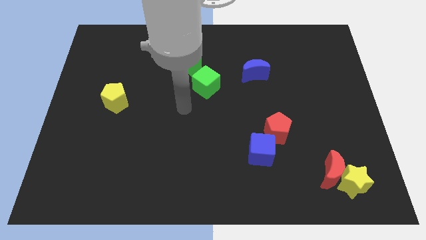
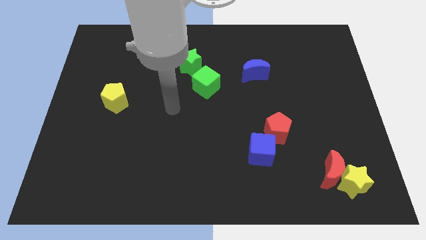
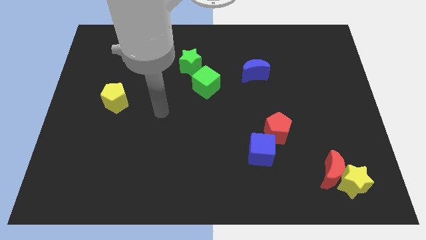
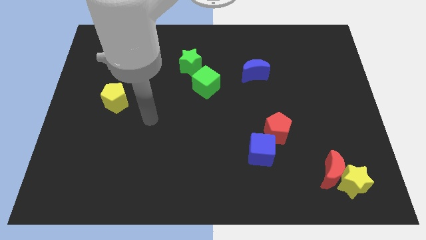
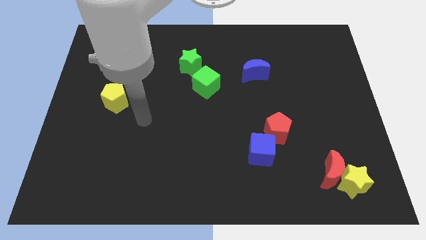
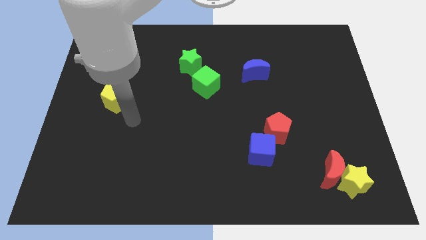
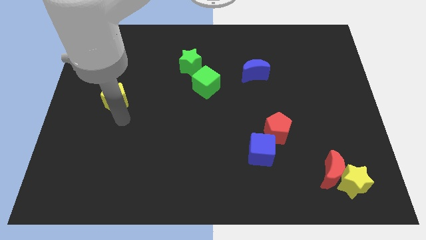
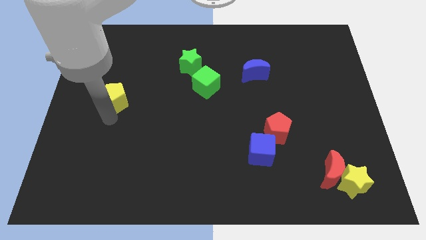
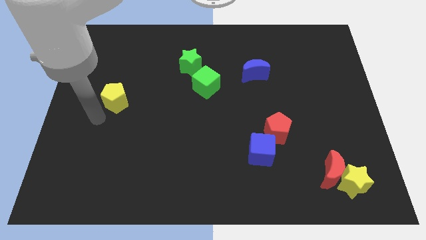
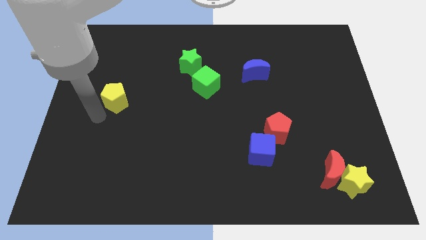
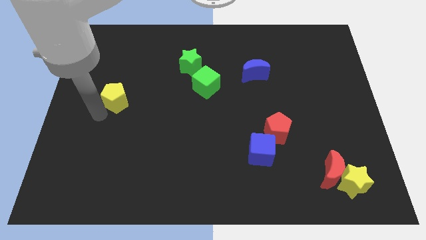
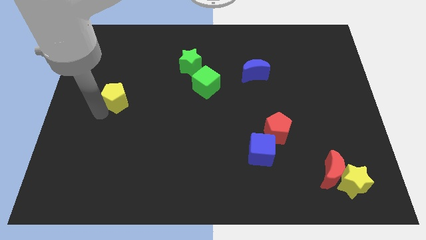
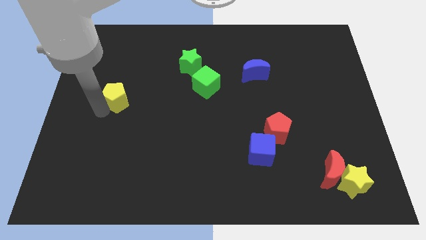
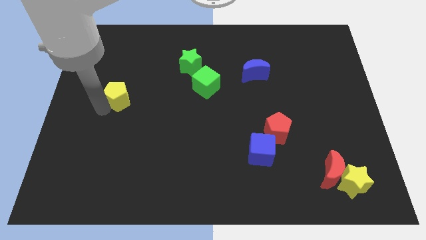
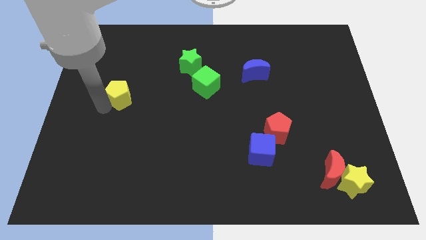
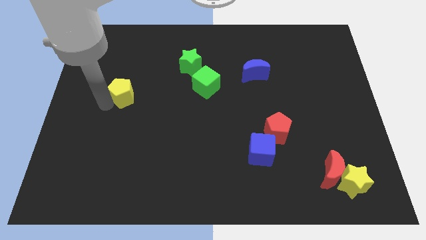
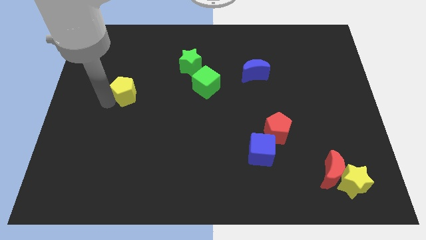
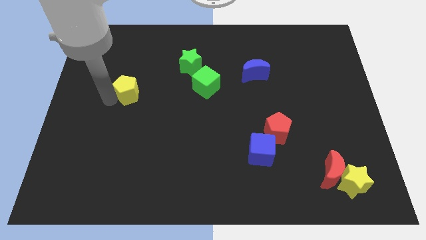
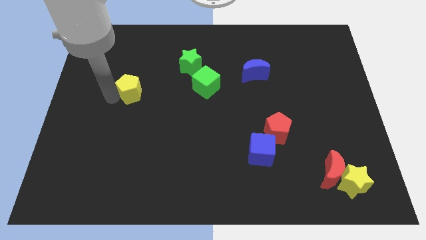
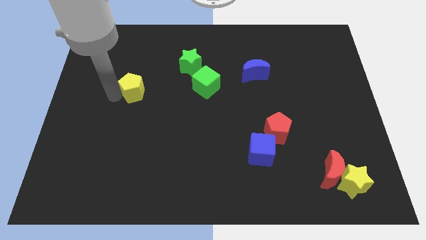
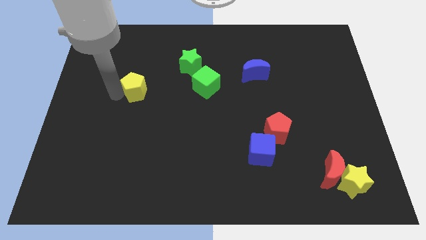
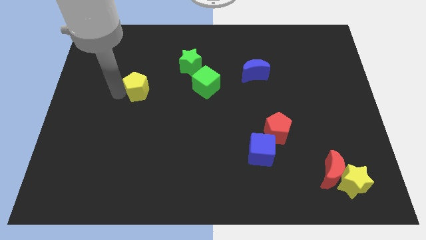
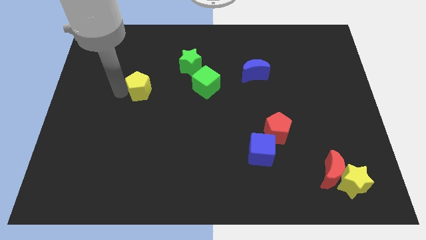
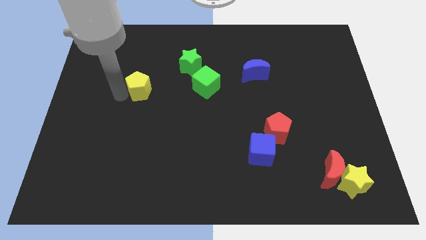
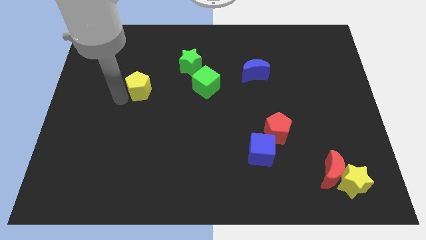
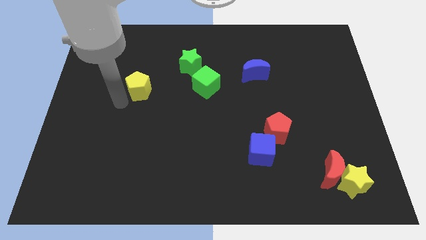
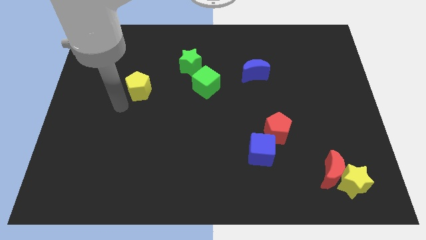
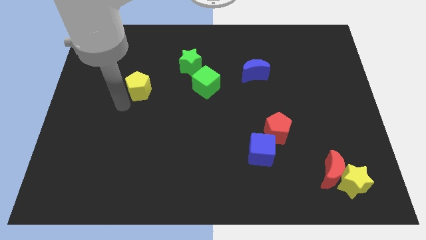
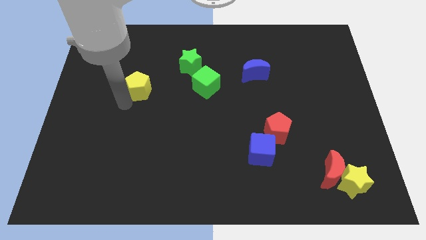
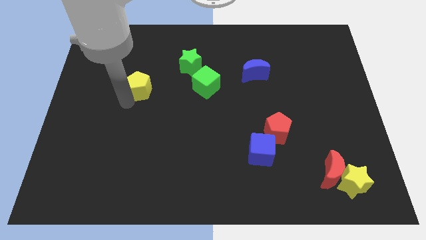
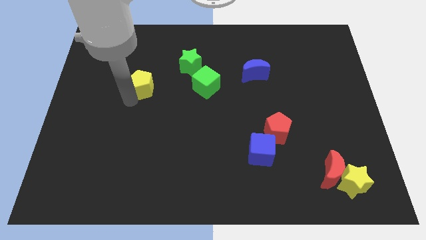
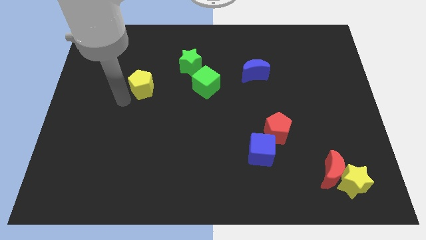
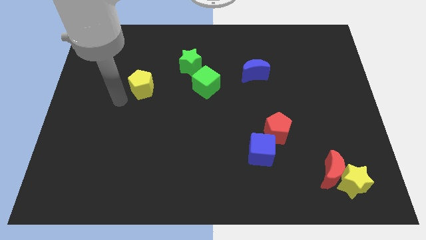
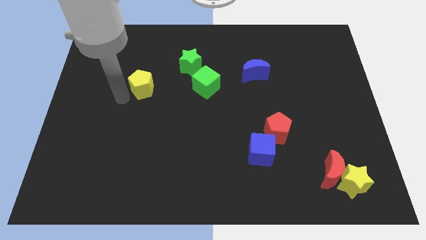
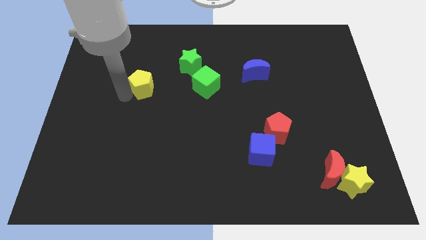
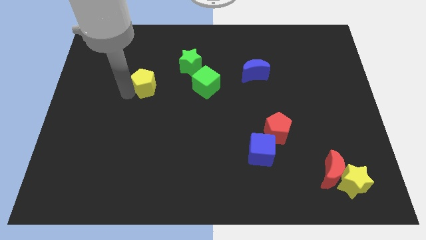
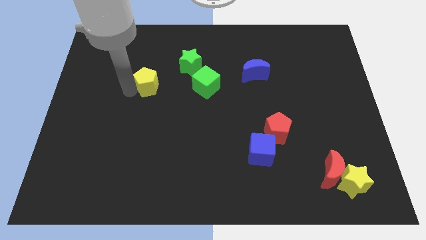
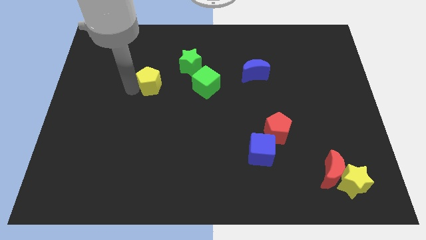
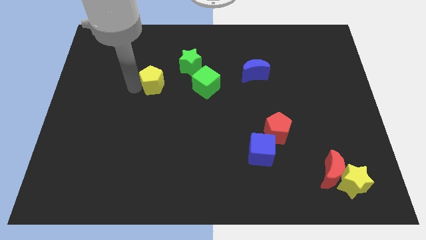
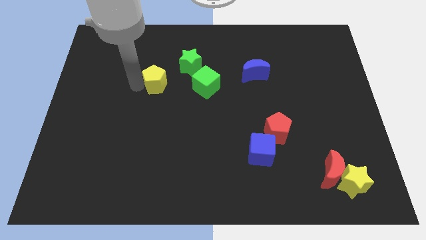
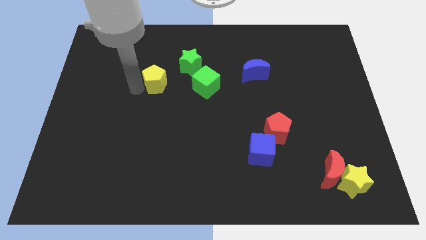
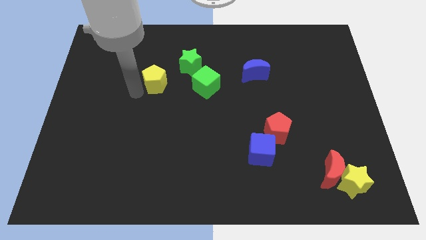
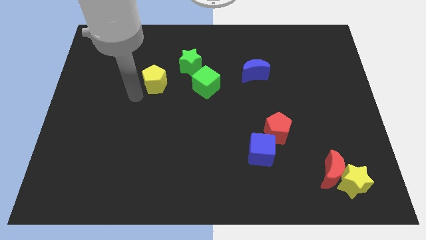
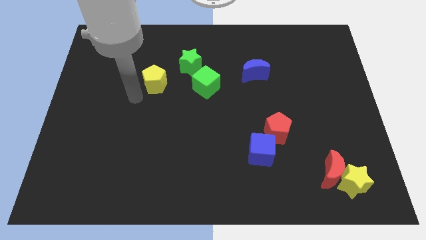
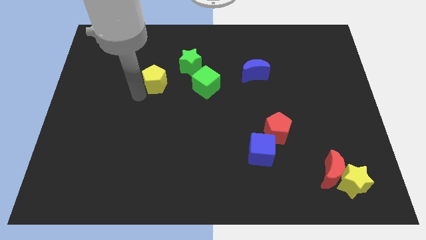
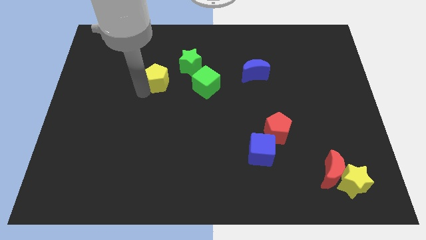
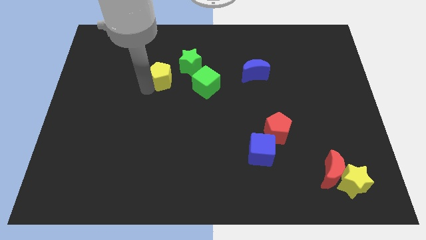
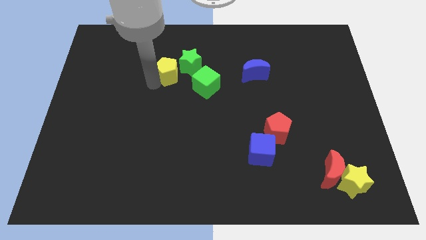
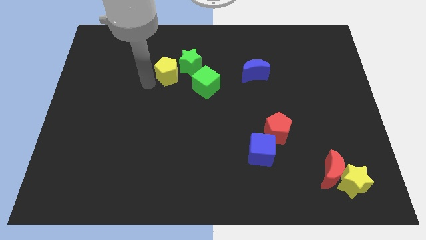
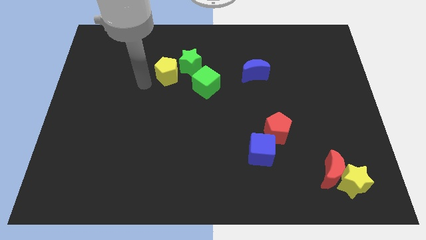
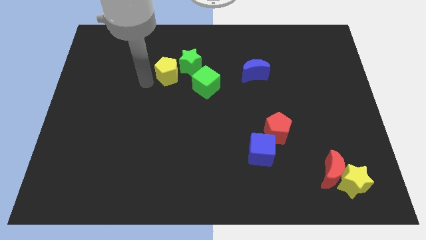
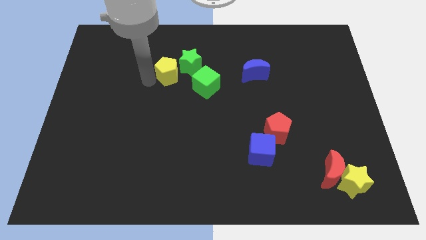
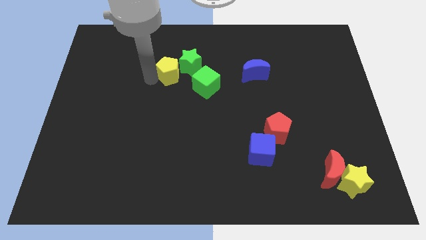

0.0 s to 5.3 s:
put the yellow pentagon next to the green star

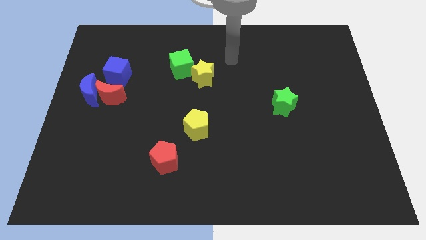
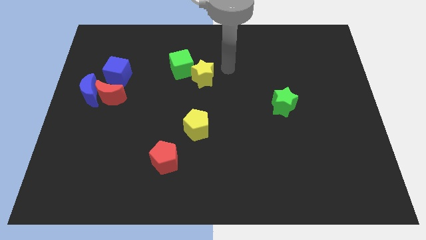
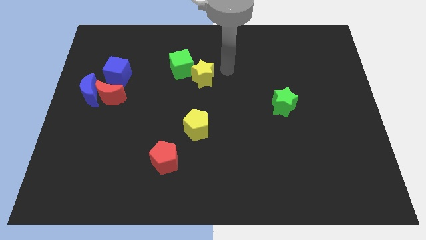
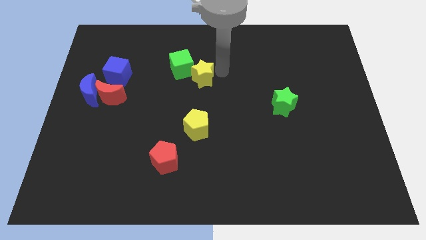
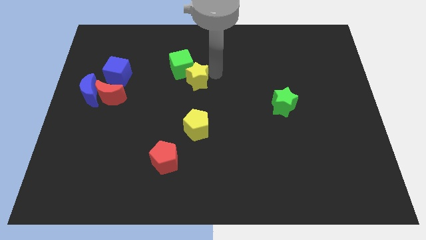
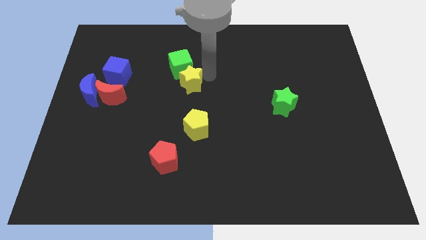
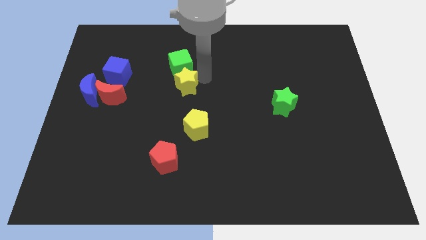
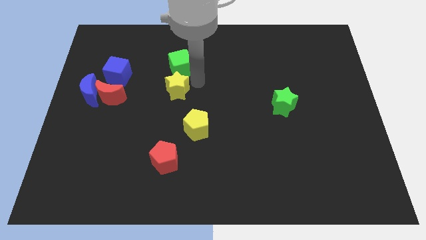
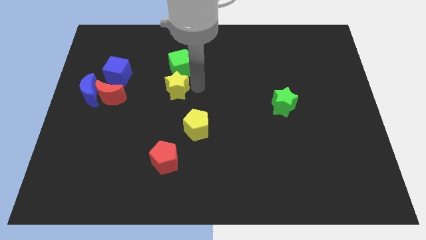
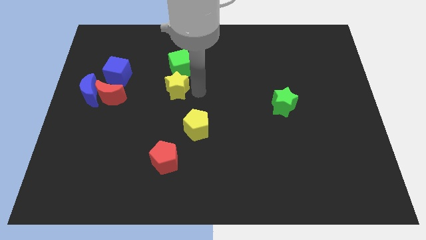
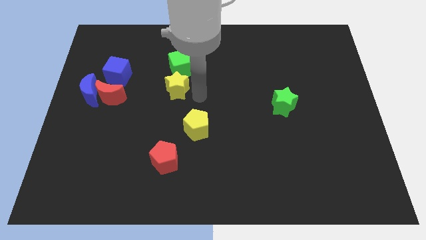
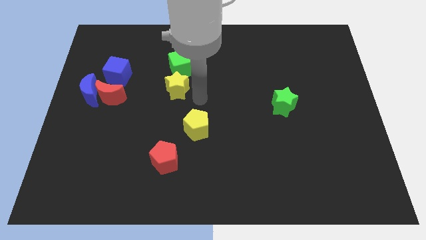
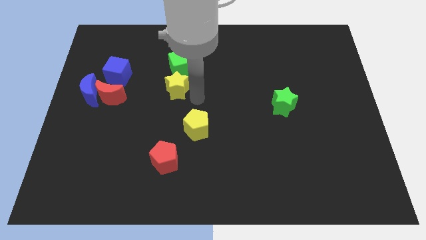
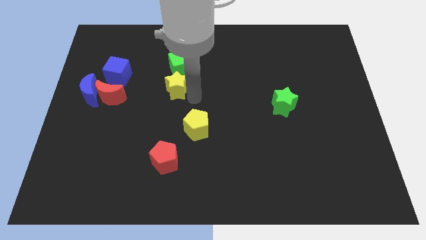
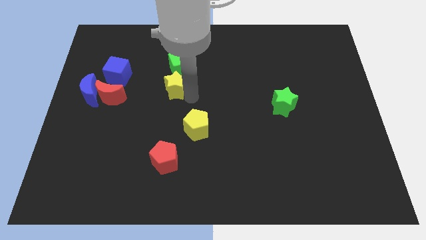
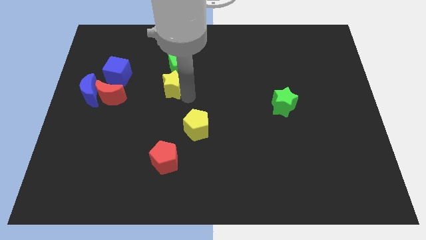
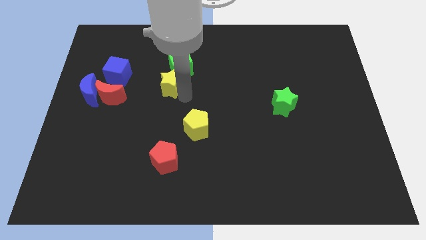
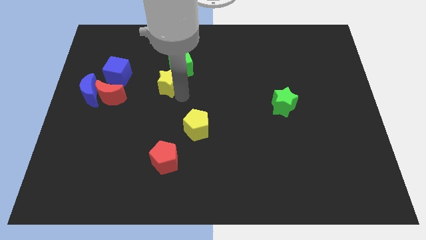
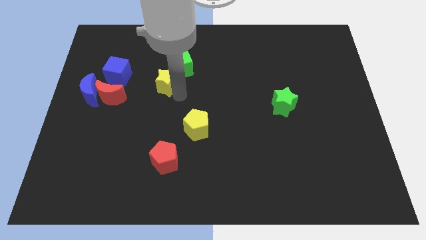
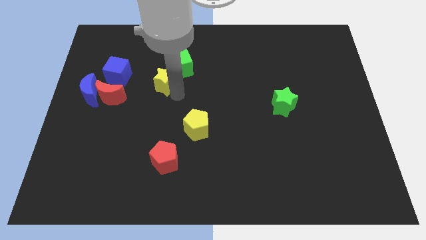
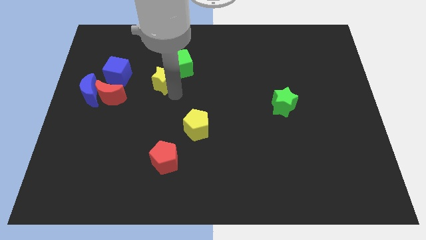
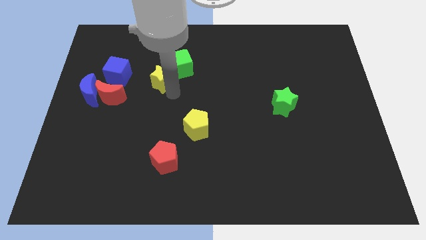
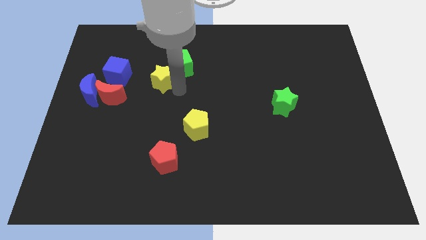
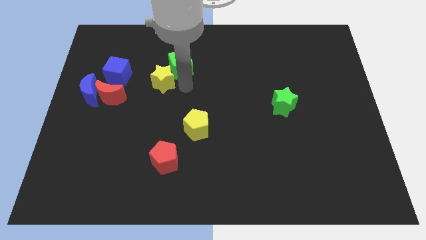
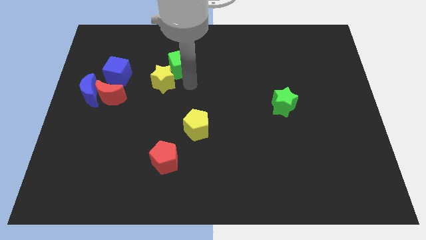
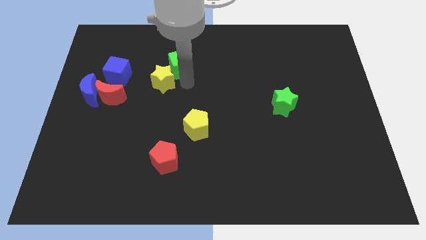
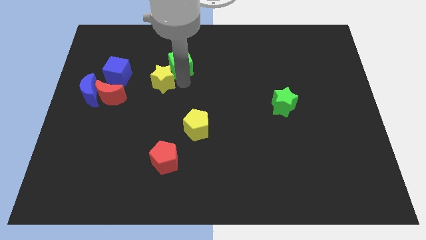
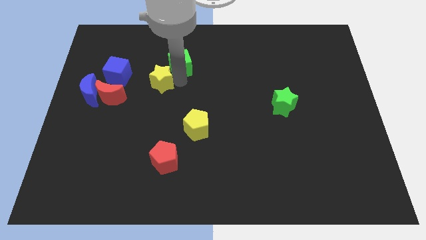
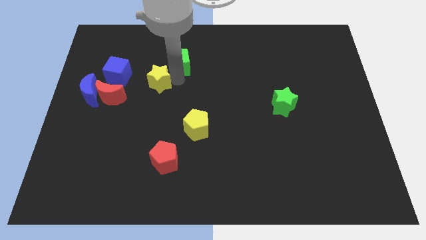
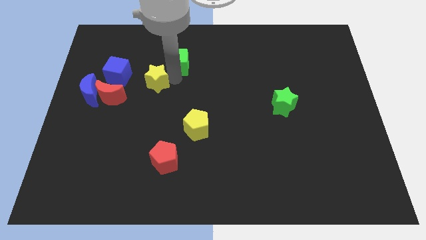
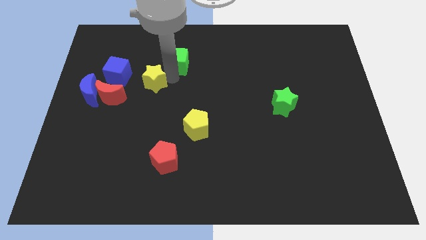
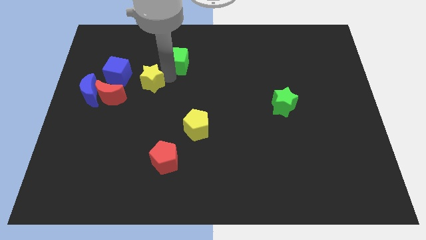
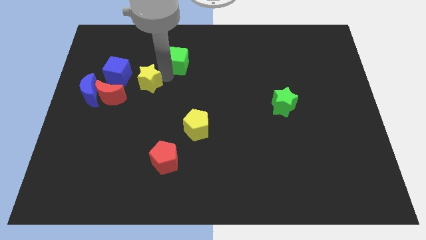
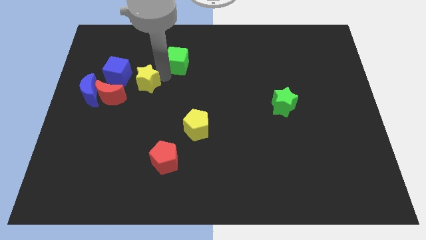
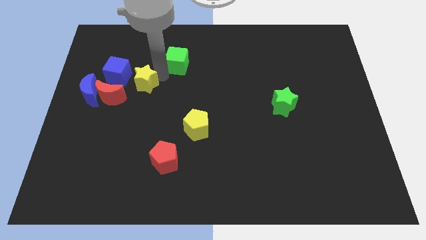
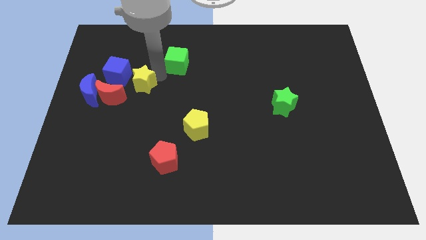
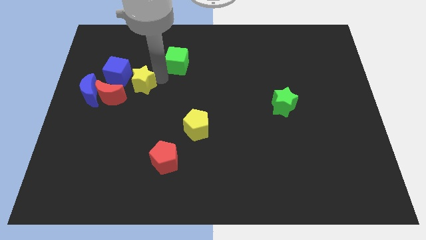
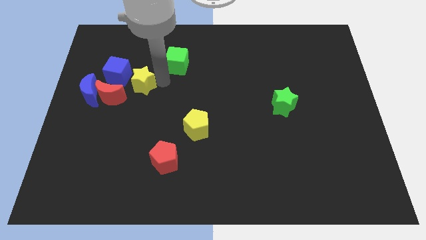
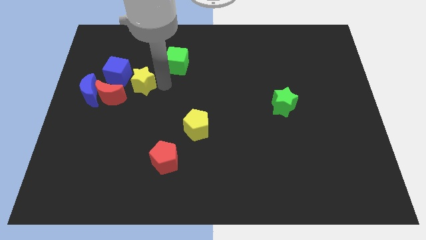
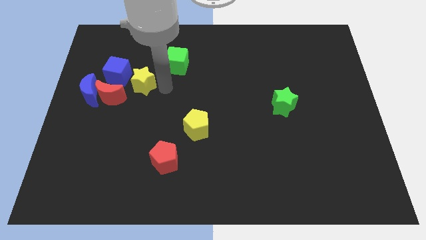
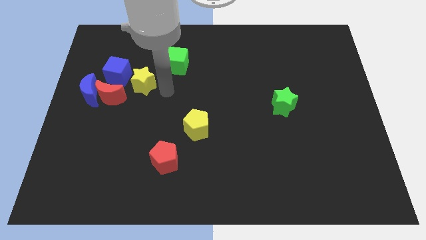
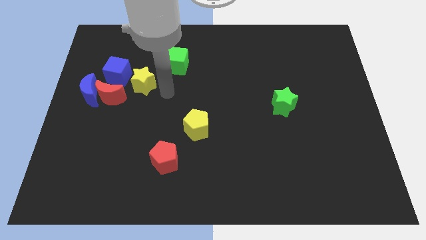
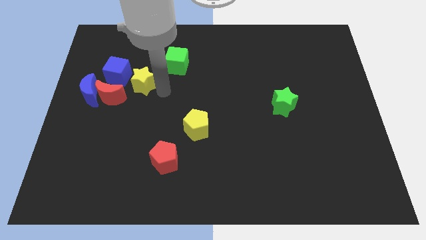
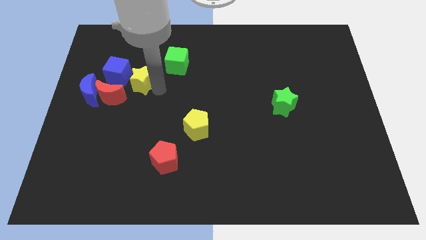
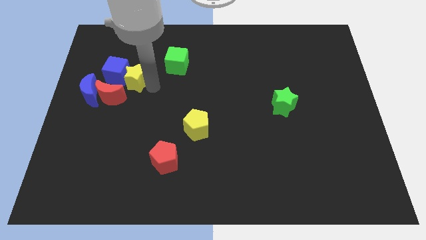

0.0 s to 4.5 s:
put the yellow star next to the blue cube
